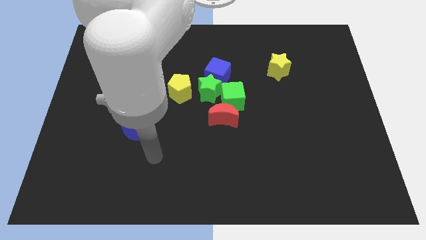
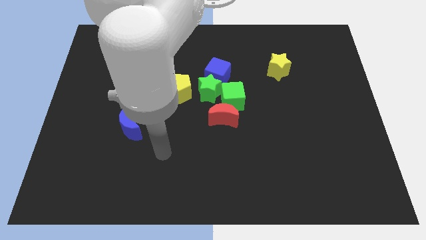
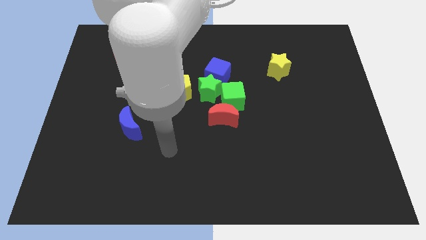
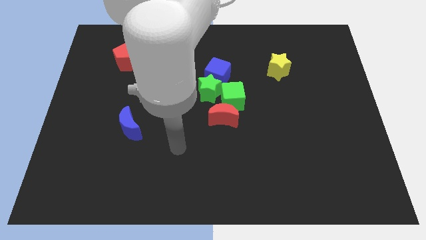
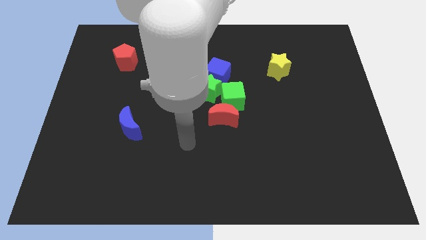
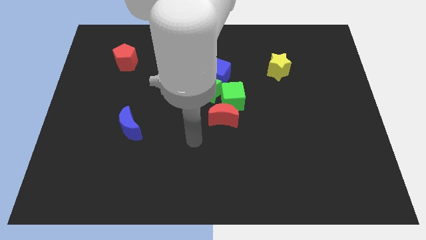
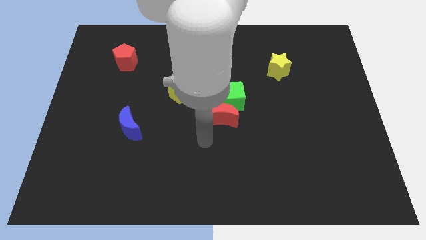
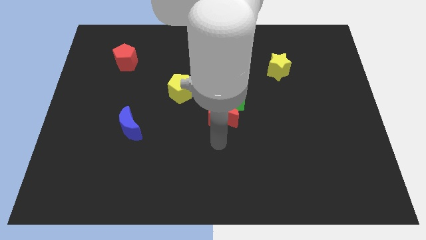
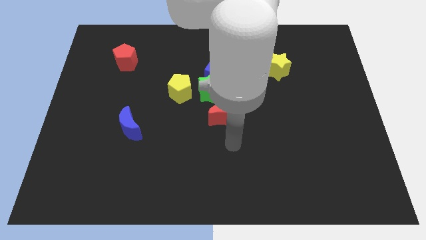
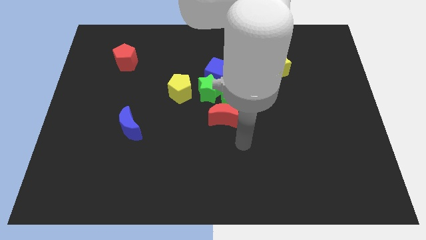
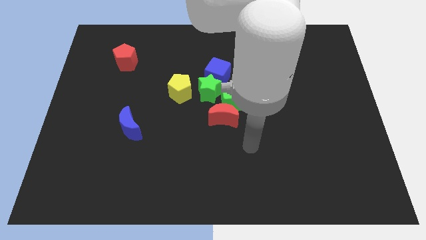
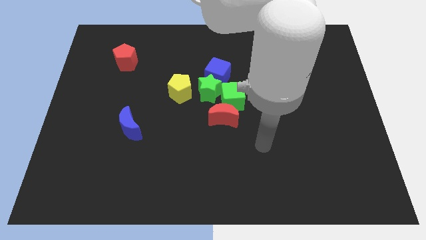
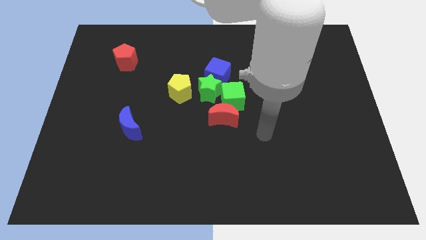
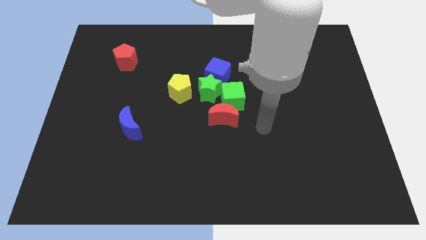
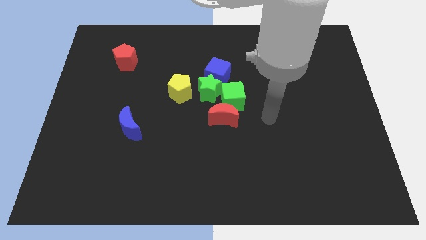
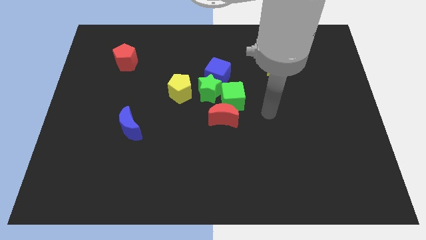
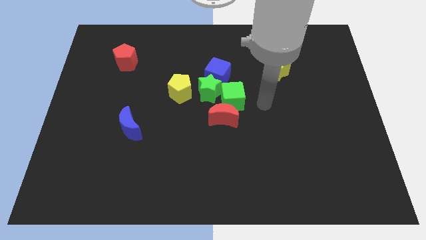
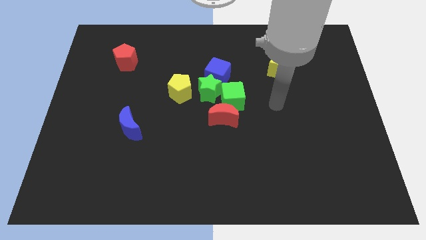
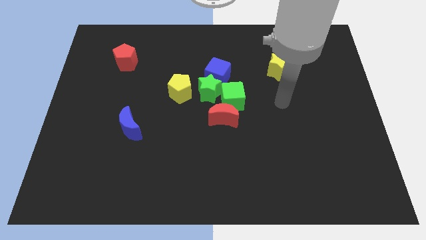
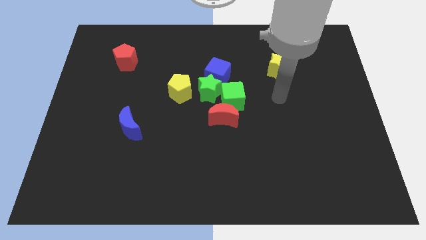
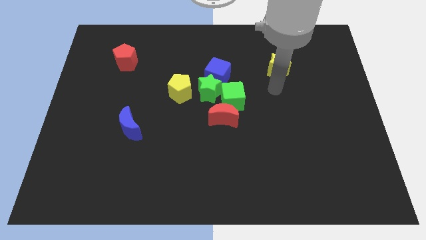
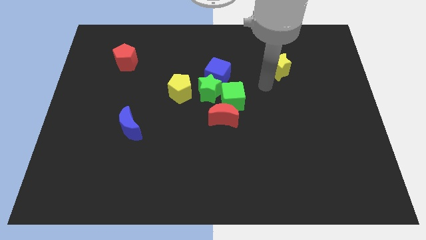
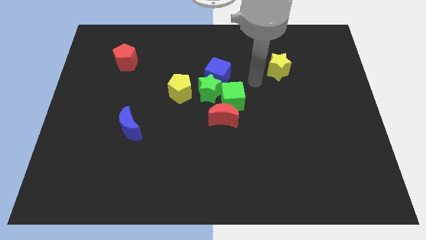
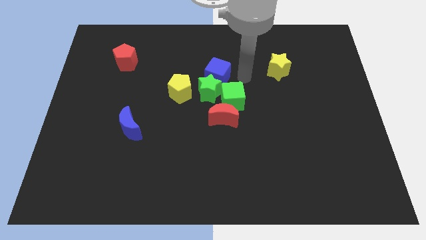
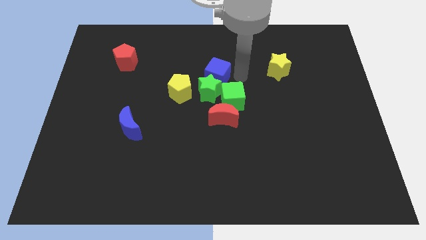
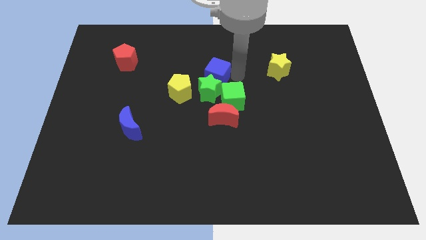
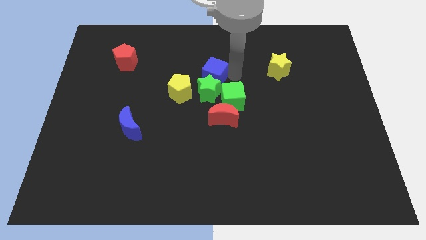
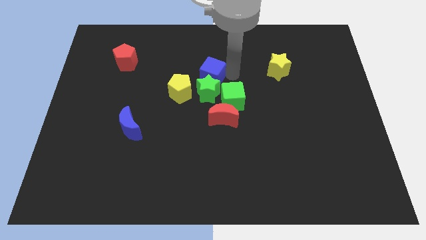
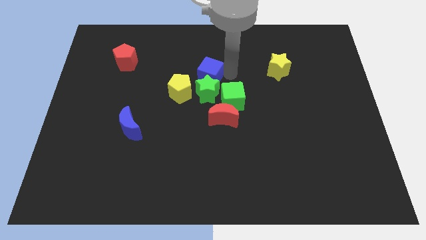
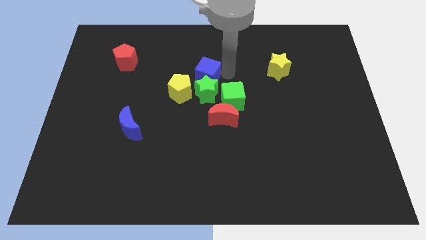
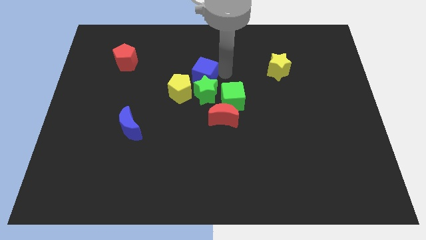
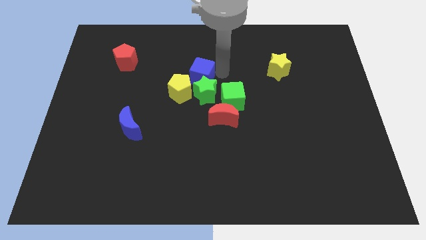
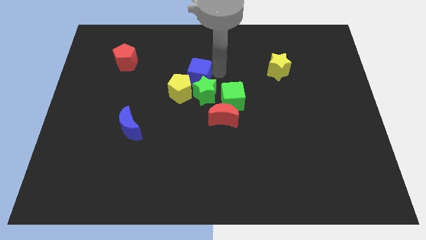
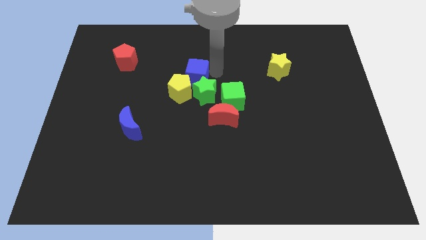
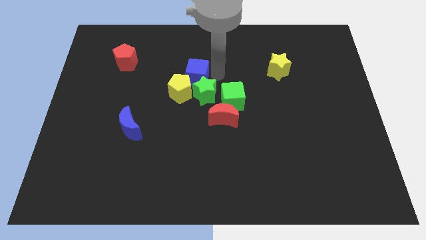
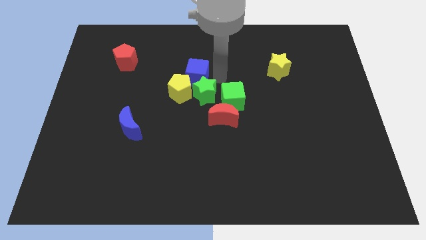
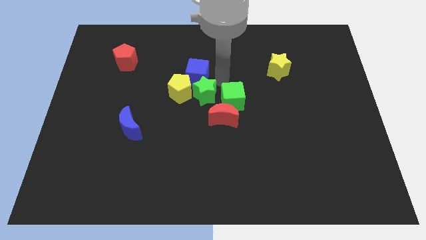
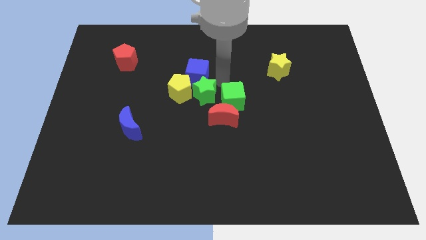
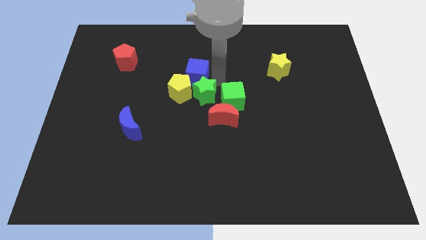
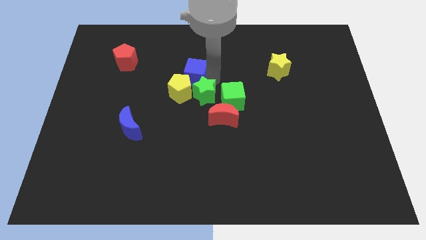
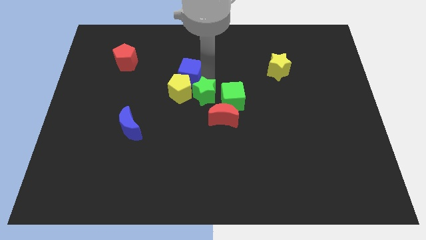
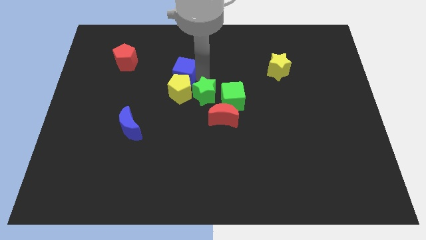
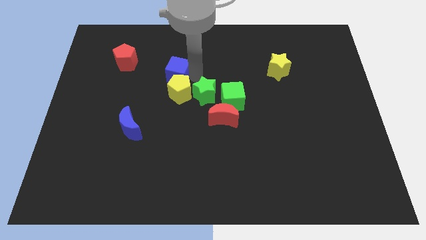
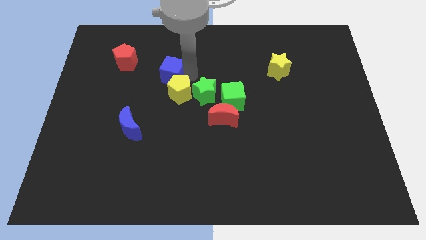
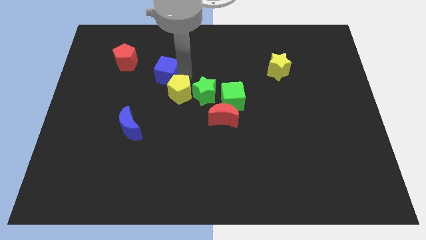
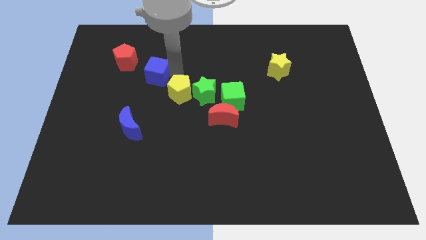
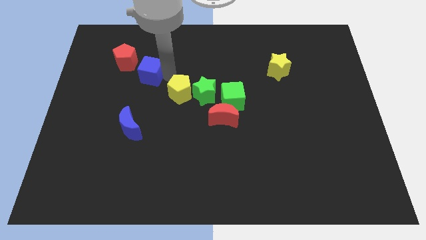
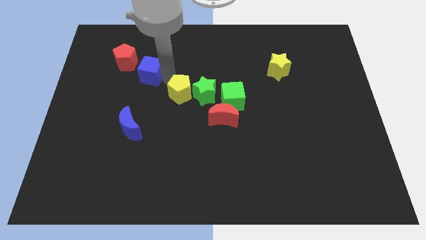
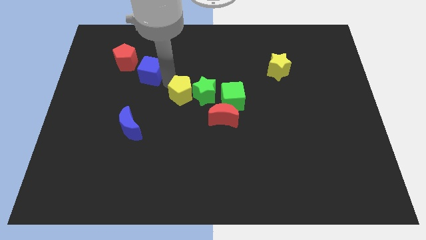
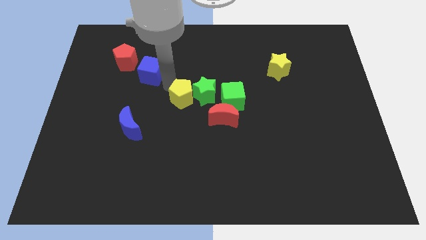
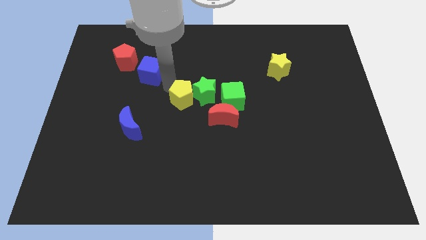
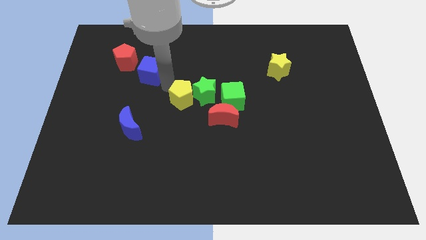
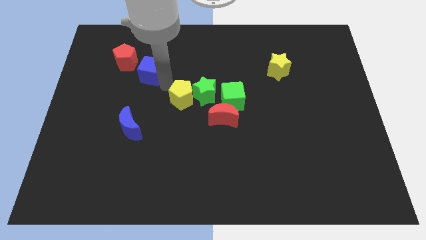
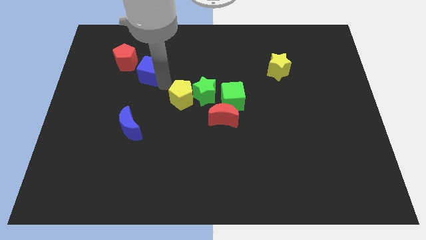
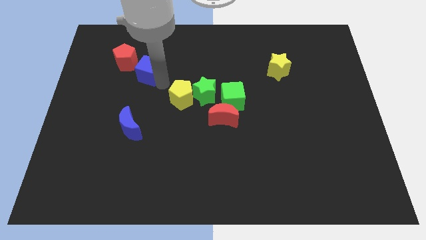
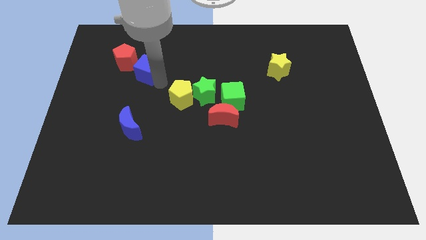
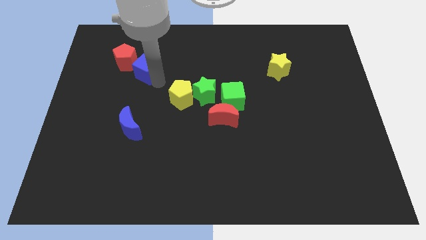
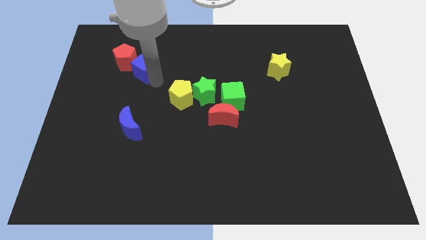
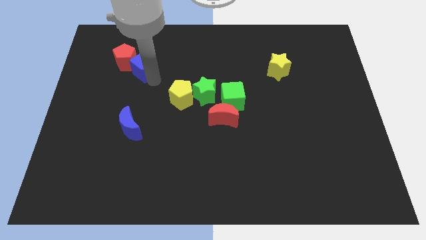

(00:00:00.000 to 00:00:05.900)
slide the blue cube towards the red pentagon

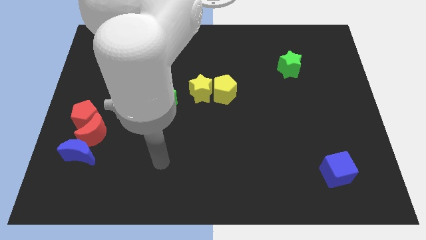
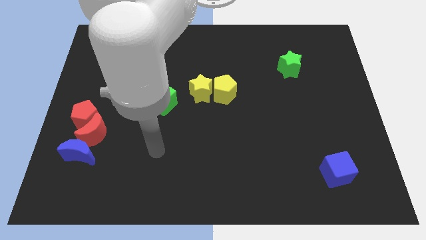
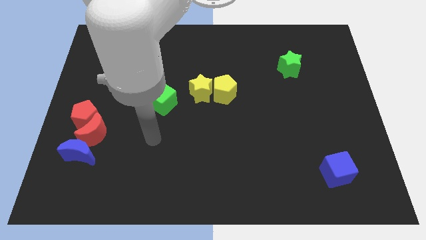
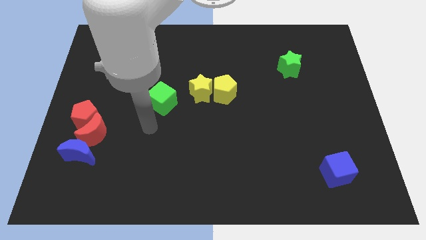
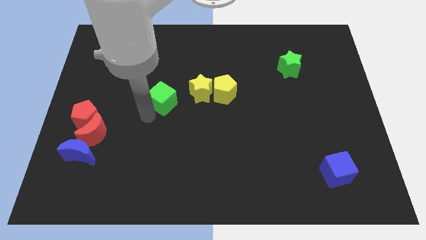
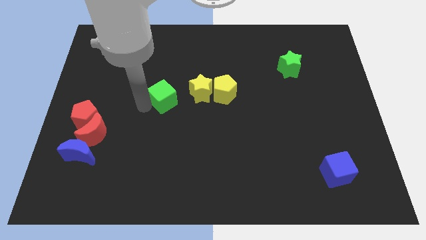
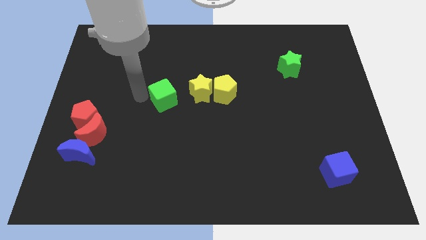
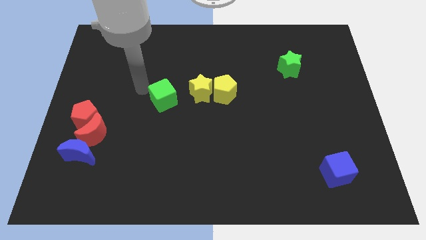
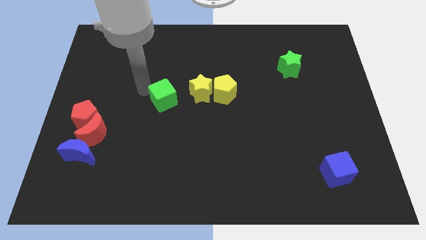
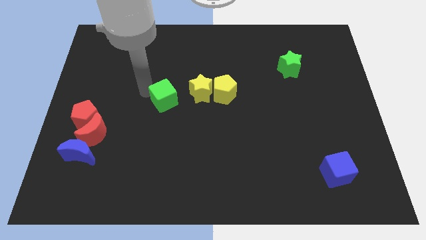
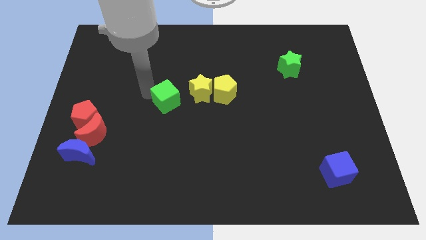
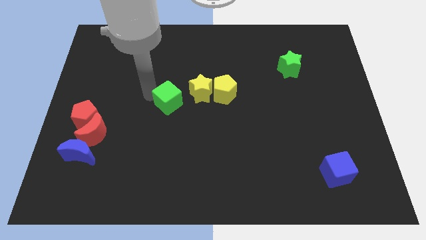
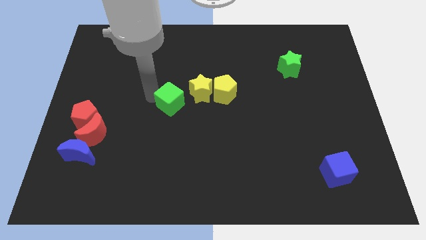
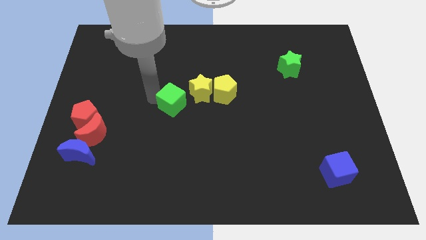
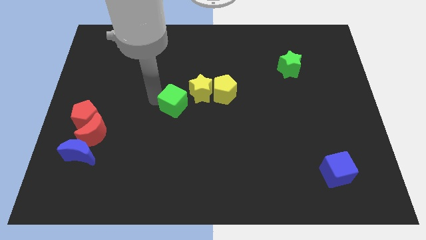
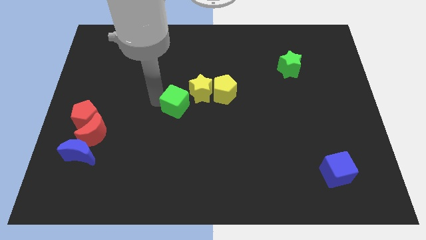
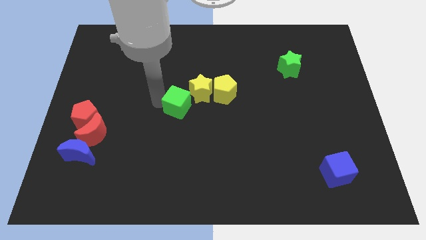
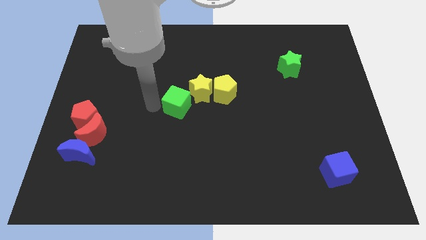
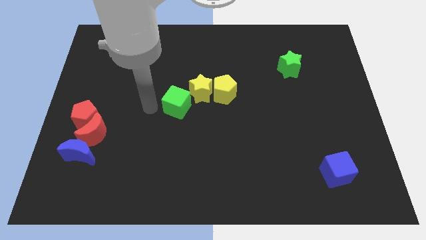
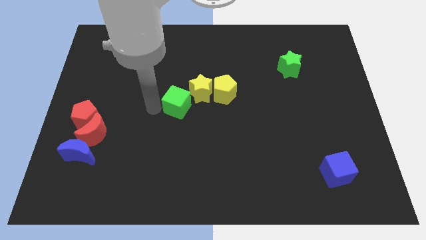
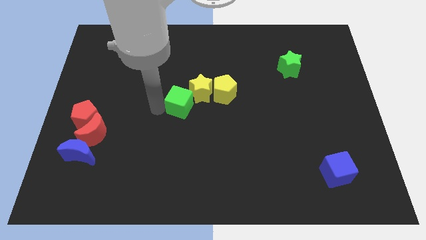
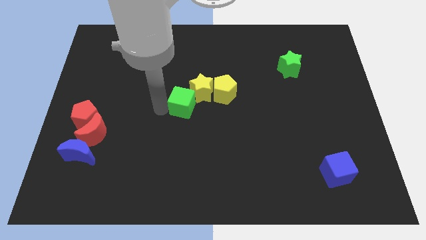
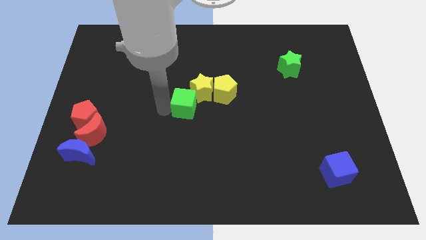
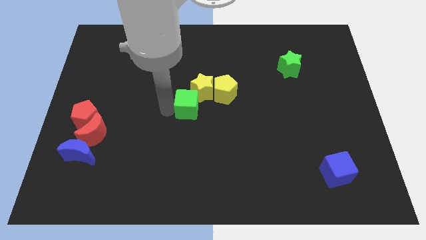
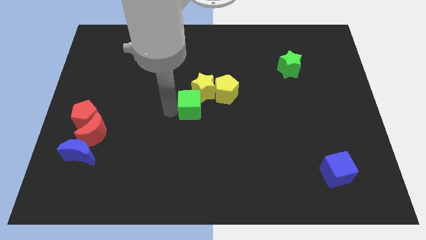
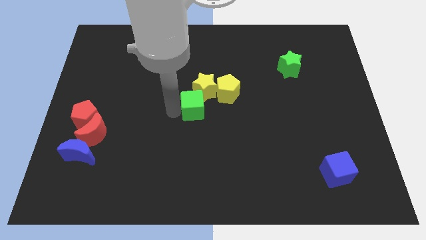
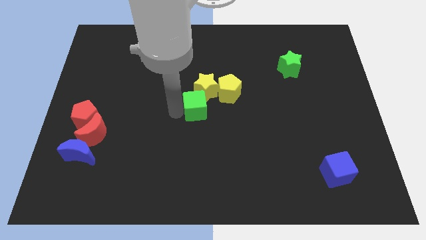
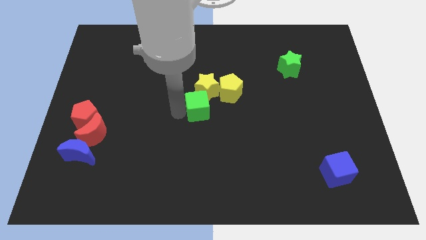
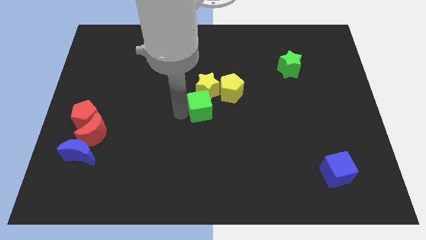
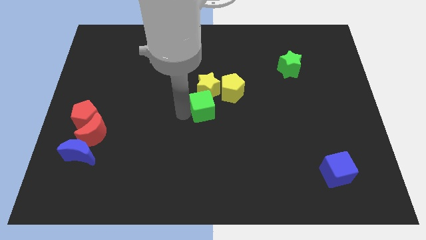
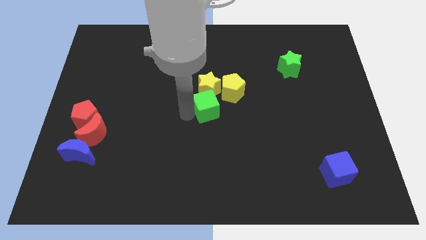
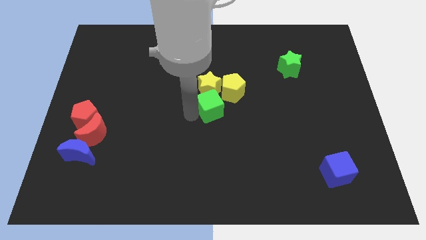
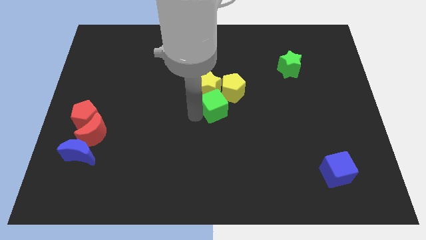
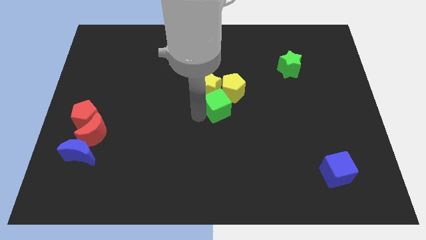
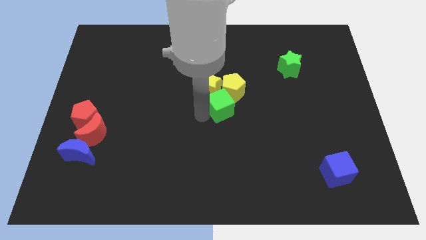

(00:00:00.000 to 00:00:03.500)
move the green cube to the yellow pentagon
